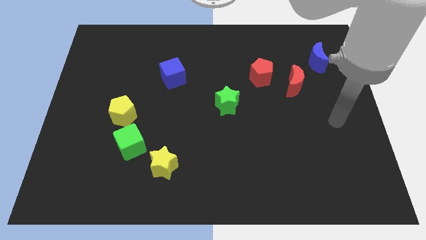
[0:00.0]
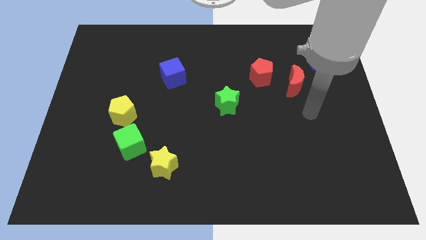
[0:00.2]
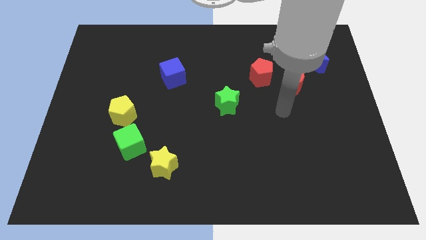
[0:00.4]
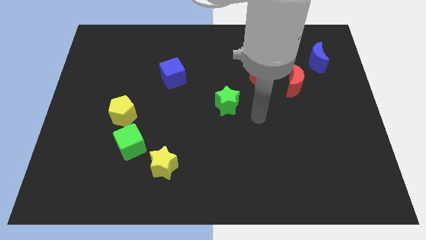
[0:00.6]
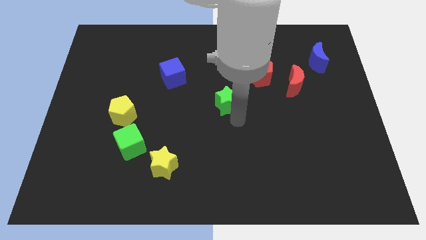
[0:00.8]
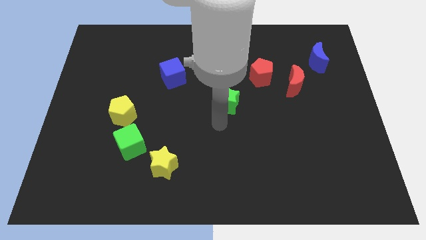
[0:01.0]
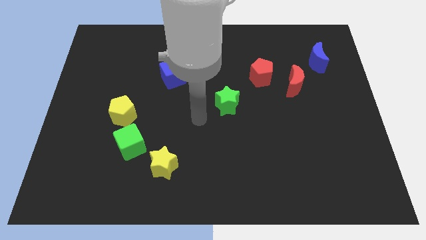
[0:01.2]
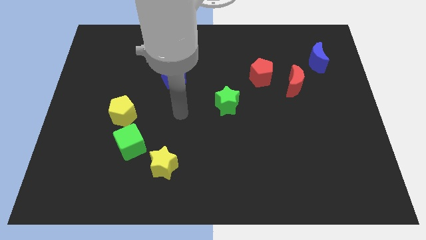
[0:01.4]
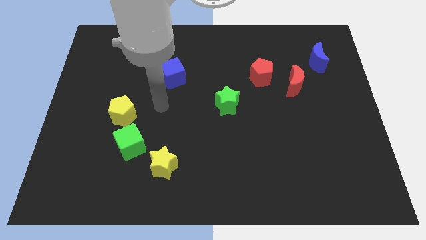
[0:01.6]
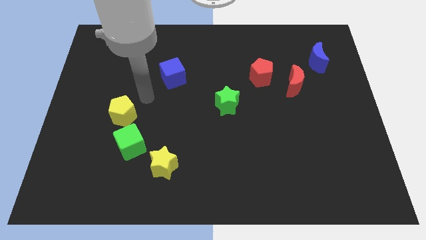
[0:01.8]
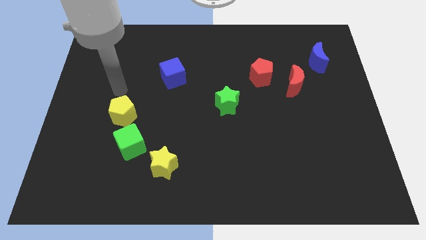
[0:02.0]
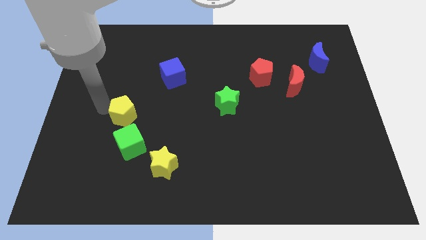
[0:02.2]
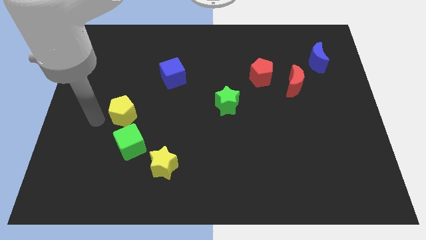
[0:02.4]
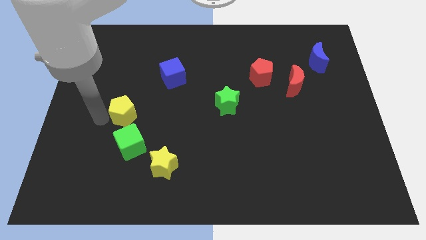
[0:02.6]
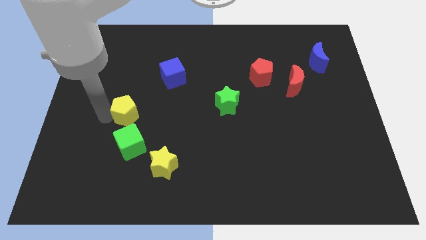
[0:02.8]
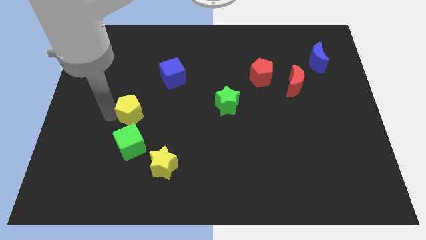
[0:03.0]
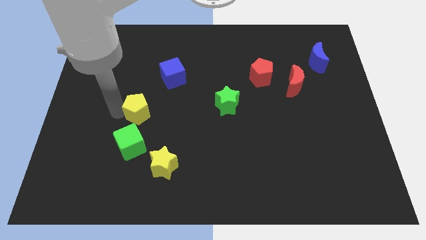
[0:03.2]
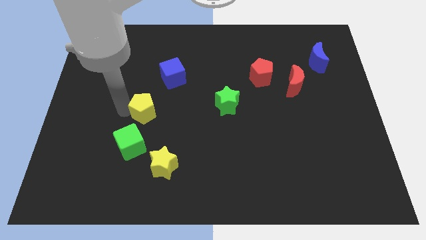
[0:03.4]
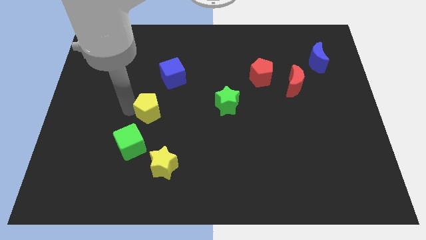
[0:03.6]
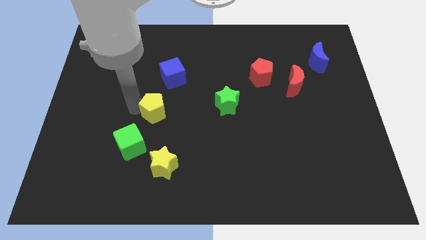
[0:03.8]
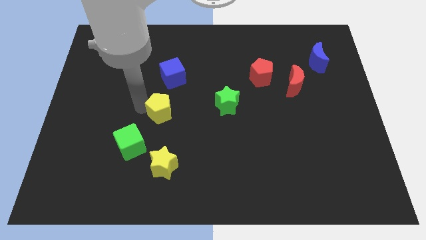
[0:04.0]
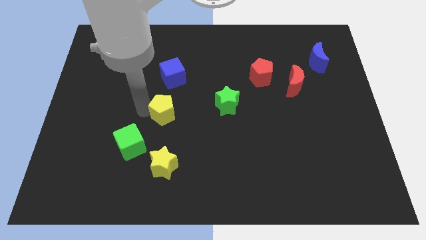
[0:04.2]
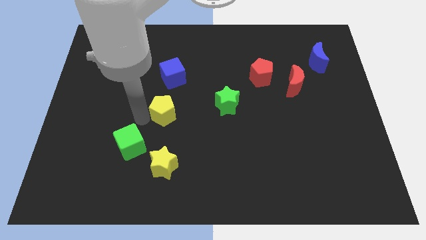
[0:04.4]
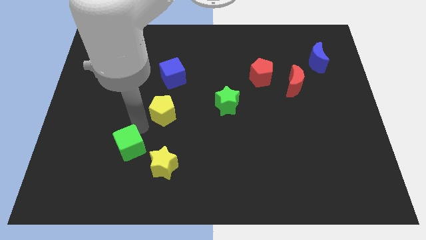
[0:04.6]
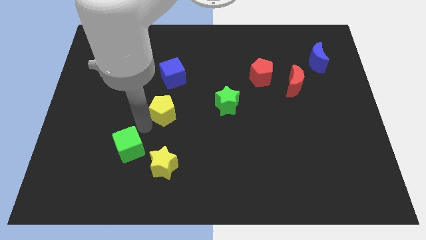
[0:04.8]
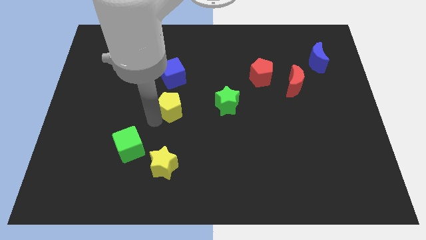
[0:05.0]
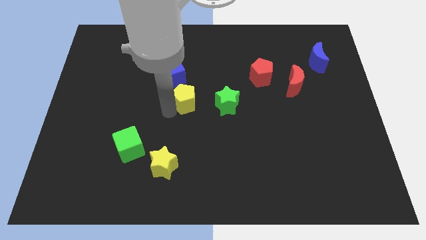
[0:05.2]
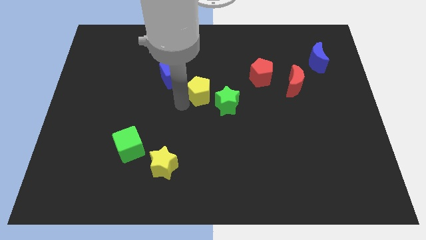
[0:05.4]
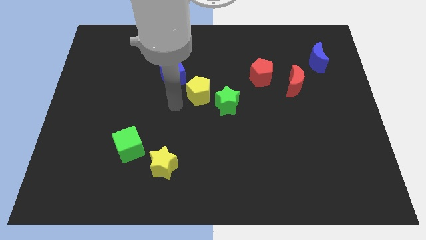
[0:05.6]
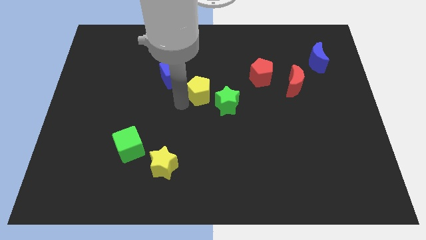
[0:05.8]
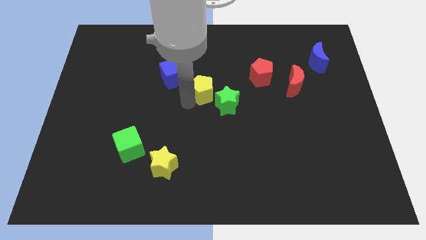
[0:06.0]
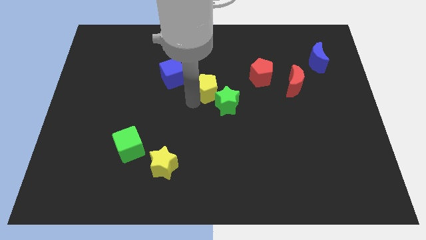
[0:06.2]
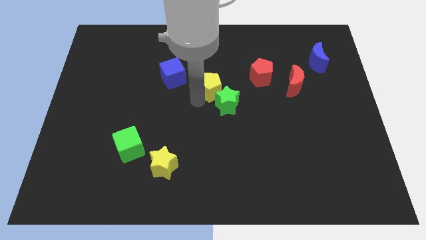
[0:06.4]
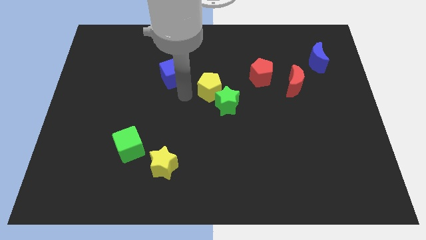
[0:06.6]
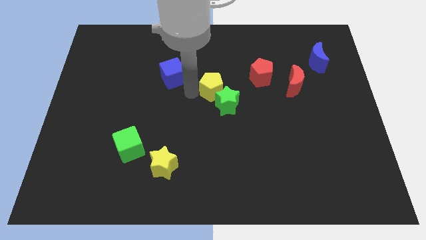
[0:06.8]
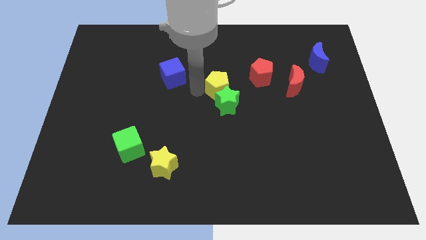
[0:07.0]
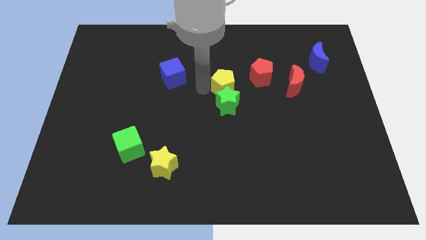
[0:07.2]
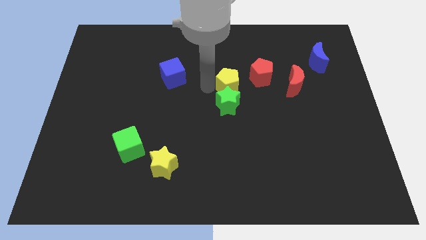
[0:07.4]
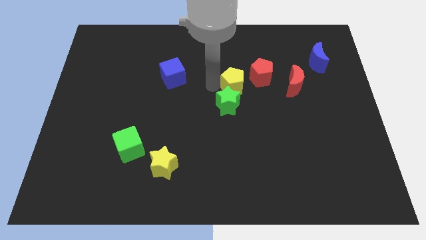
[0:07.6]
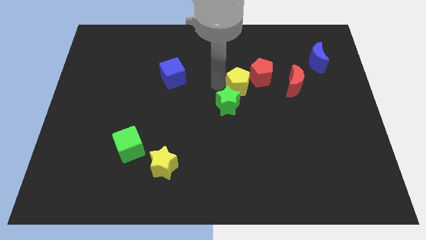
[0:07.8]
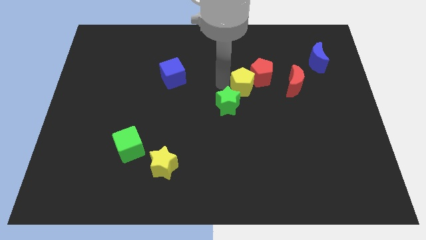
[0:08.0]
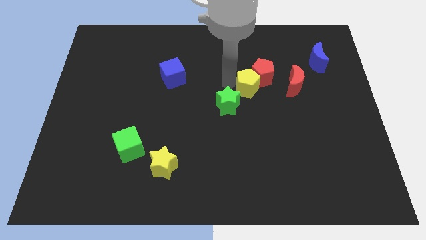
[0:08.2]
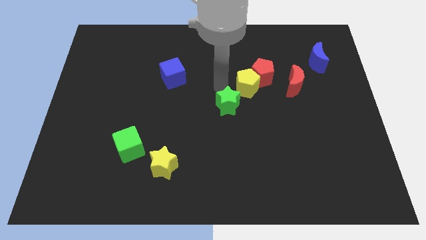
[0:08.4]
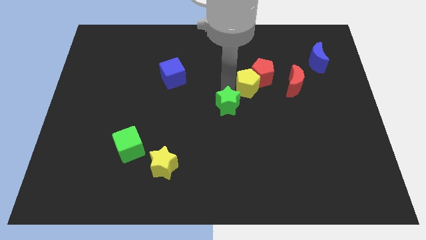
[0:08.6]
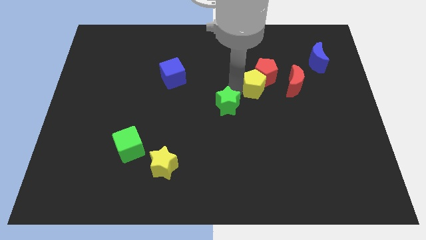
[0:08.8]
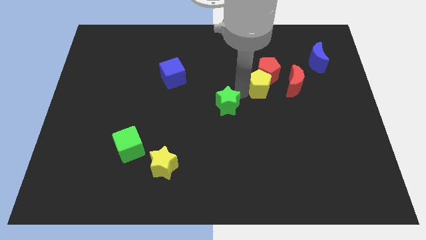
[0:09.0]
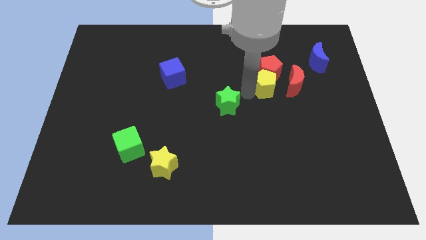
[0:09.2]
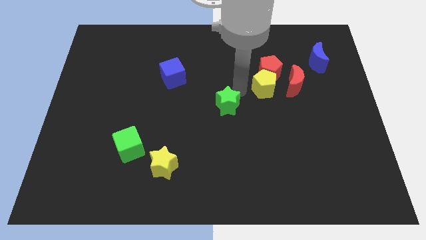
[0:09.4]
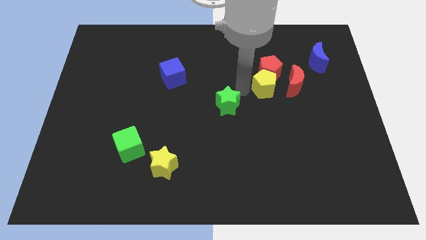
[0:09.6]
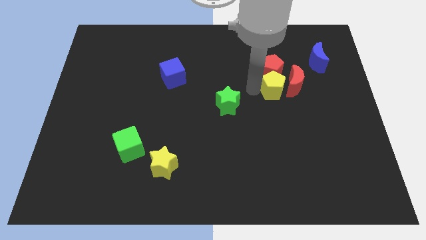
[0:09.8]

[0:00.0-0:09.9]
push the yellow pentagon close to the red moon

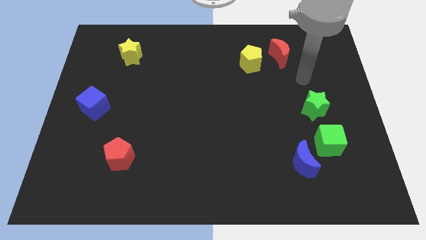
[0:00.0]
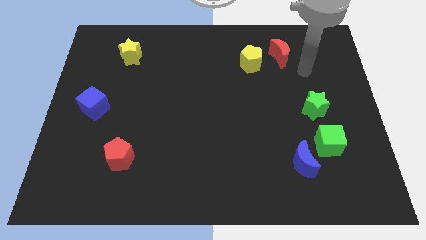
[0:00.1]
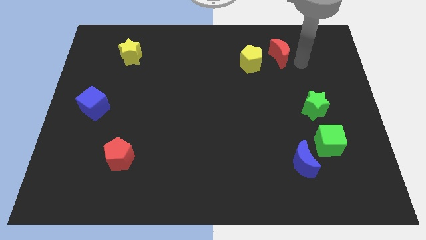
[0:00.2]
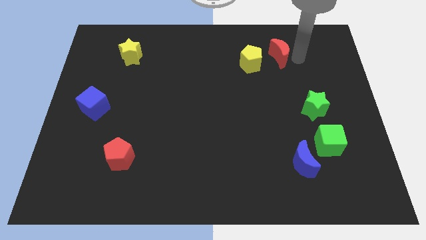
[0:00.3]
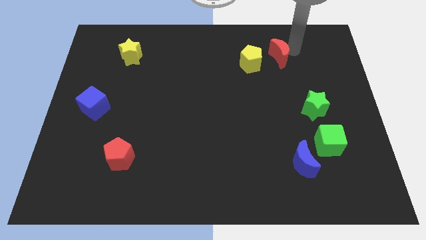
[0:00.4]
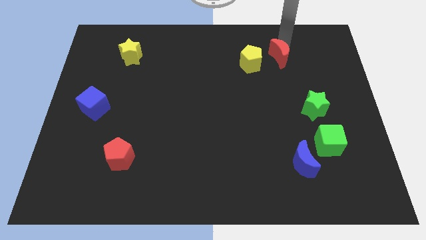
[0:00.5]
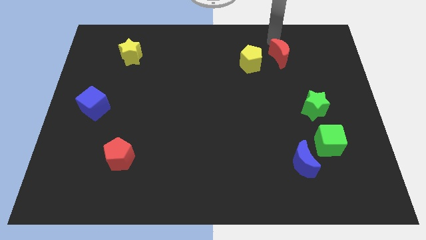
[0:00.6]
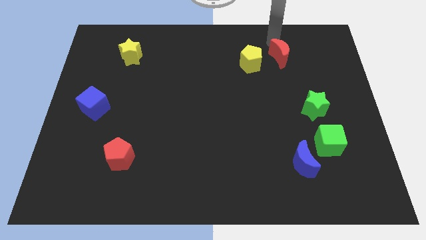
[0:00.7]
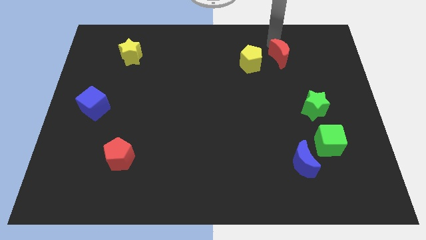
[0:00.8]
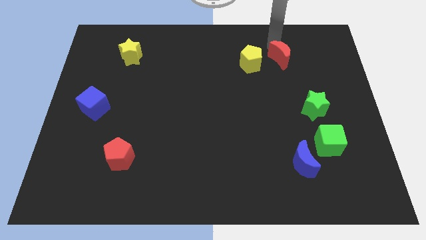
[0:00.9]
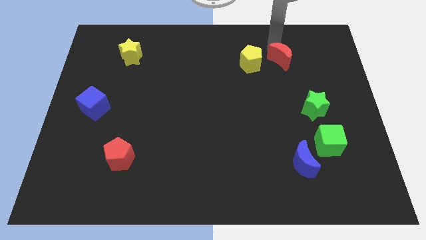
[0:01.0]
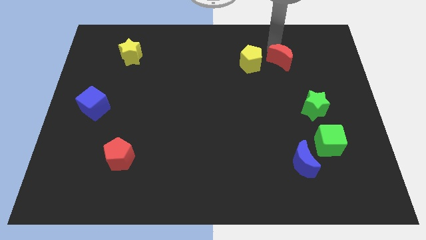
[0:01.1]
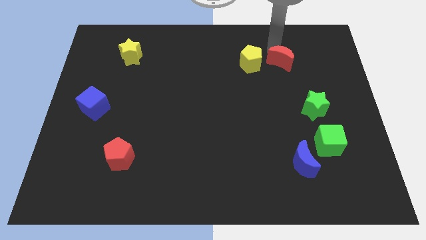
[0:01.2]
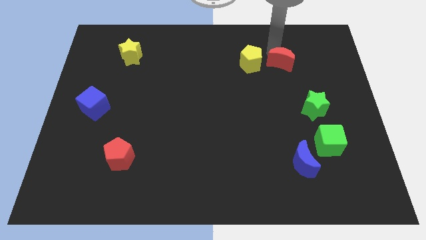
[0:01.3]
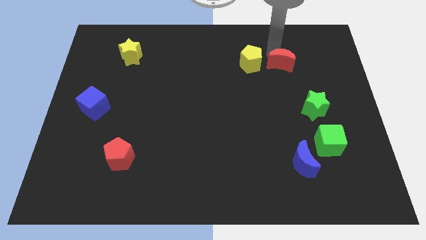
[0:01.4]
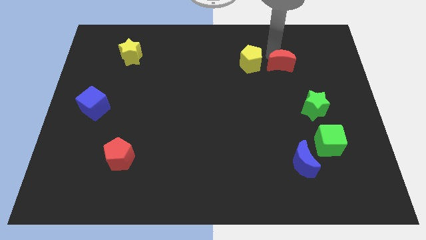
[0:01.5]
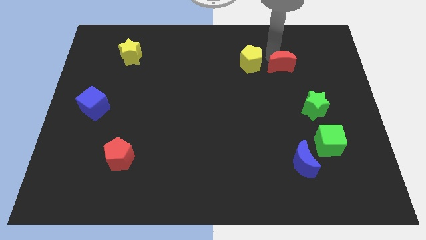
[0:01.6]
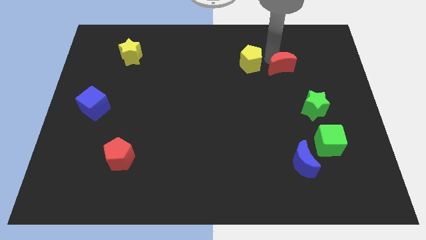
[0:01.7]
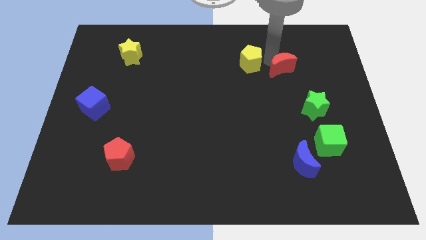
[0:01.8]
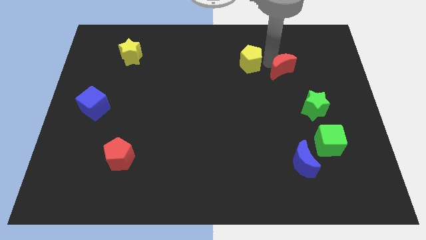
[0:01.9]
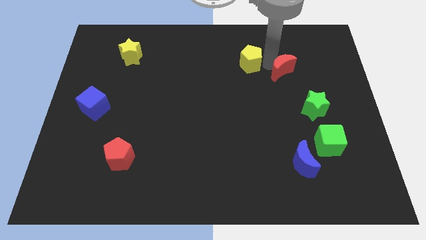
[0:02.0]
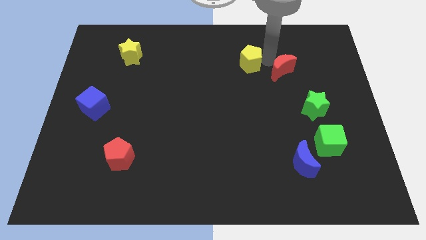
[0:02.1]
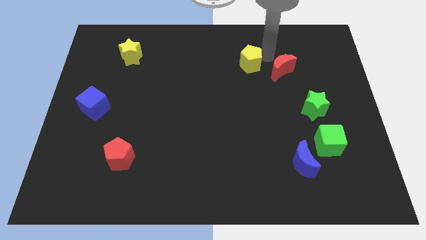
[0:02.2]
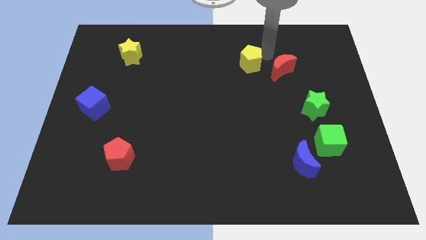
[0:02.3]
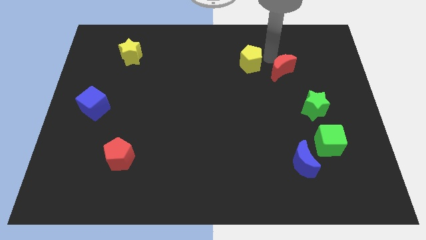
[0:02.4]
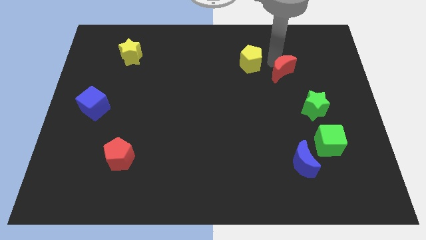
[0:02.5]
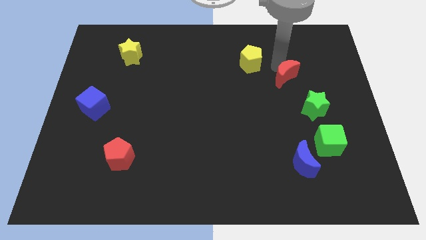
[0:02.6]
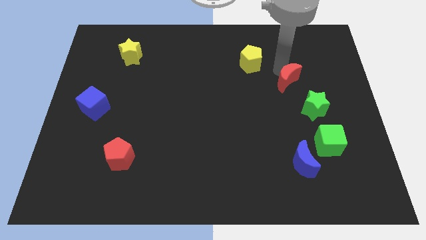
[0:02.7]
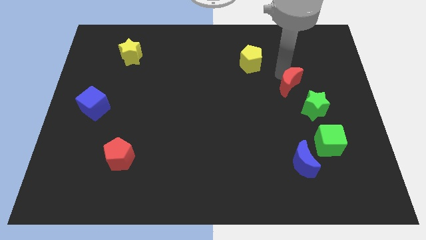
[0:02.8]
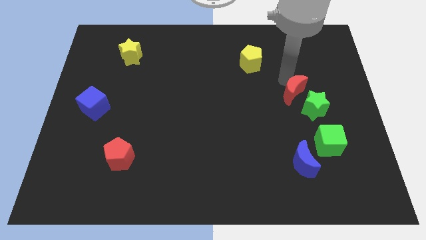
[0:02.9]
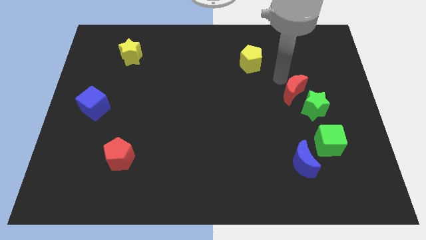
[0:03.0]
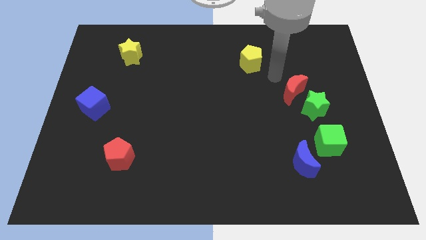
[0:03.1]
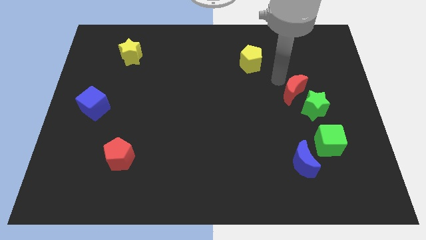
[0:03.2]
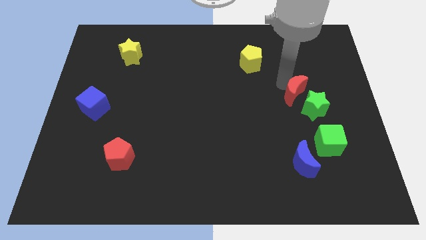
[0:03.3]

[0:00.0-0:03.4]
push the red moon towards the green star
